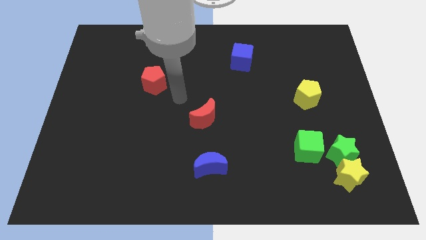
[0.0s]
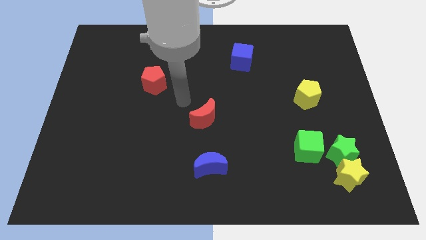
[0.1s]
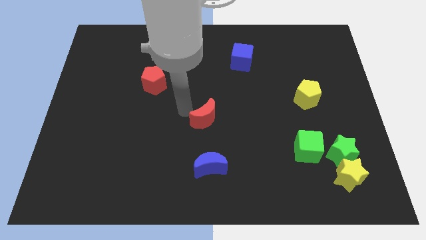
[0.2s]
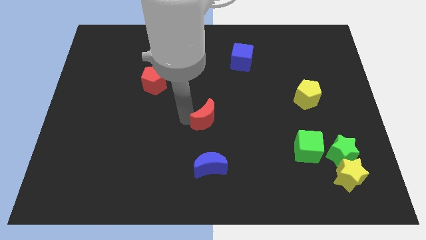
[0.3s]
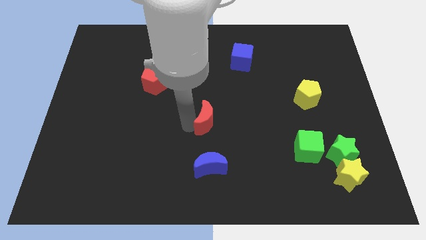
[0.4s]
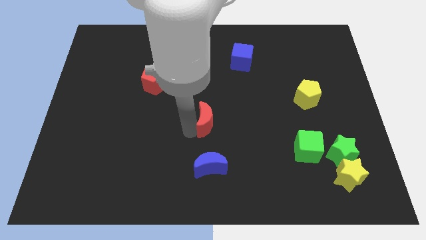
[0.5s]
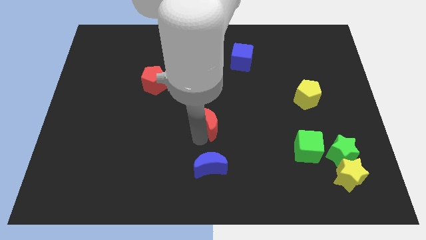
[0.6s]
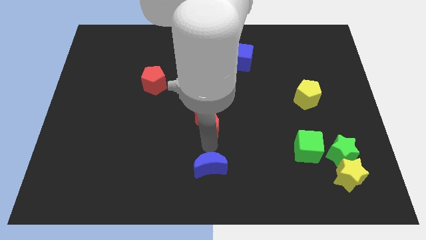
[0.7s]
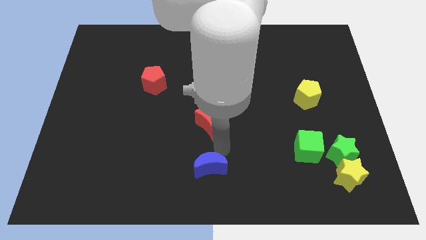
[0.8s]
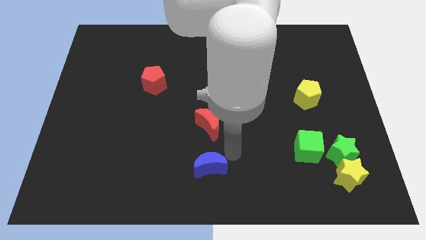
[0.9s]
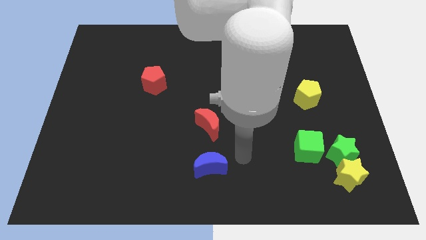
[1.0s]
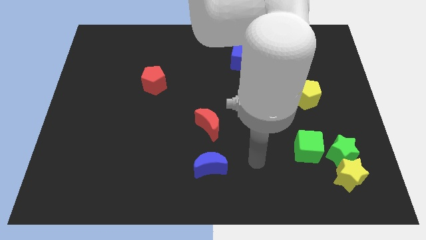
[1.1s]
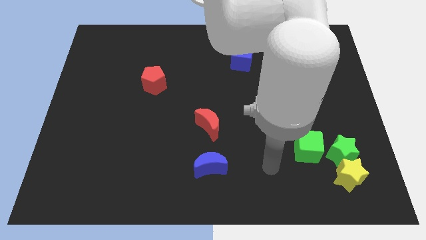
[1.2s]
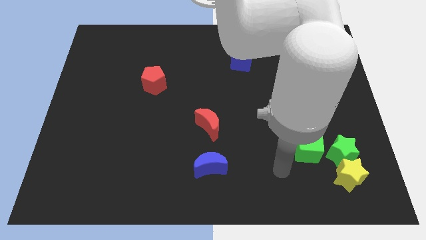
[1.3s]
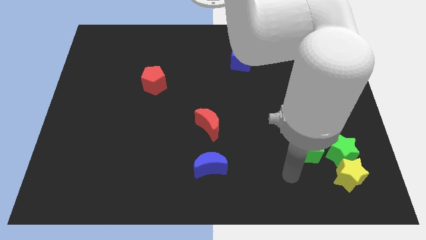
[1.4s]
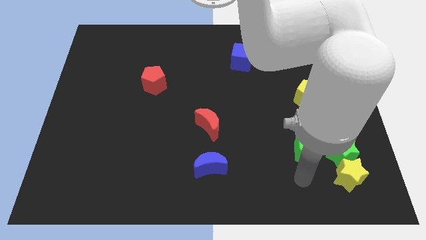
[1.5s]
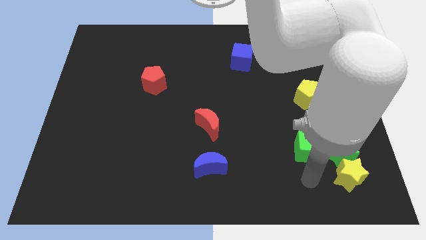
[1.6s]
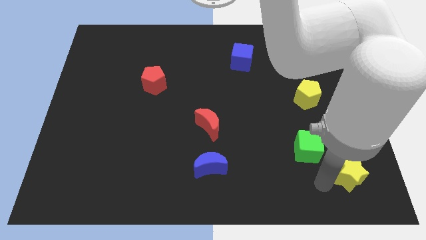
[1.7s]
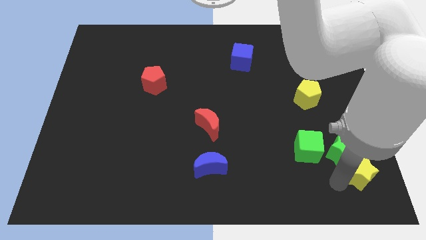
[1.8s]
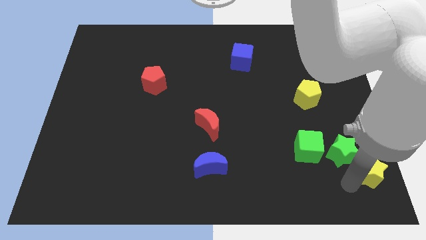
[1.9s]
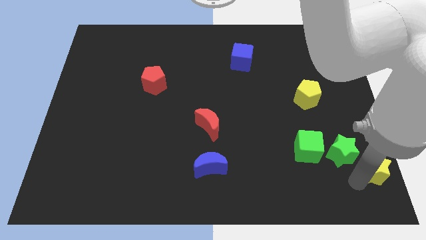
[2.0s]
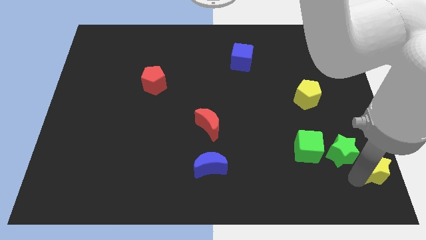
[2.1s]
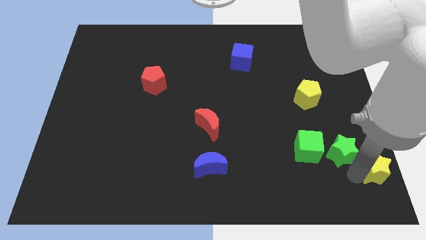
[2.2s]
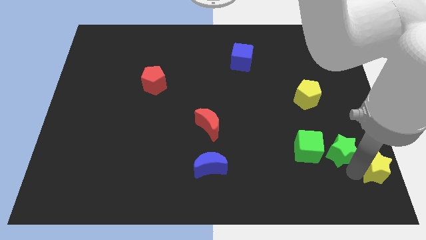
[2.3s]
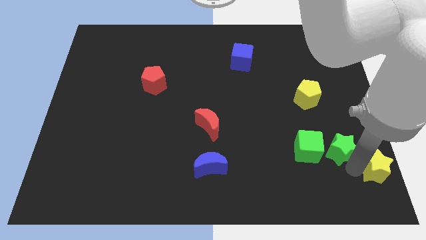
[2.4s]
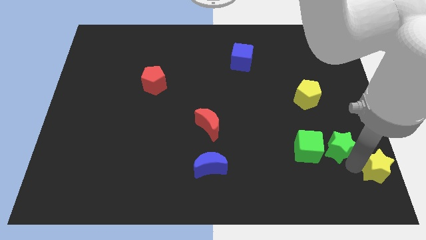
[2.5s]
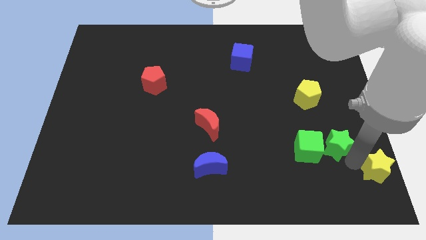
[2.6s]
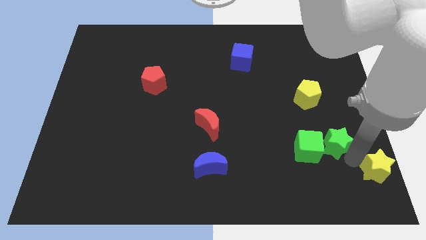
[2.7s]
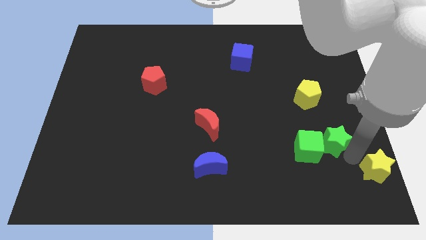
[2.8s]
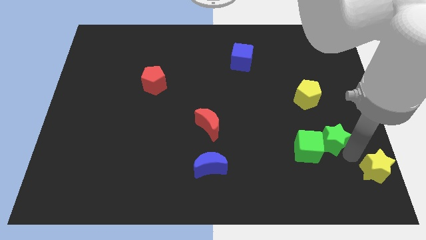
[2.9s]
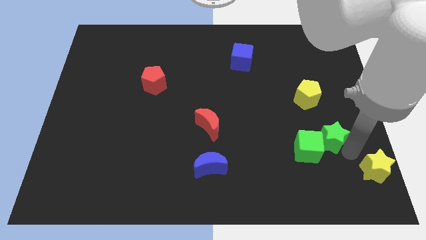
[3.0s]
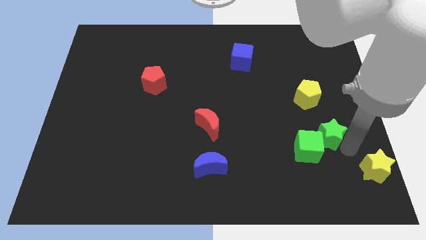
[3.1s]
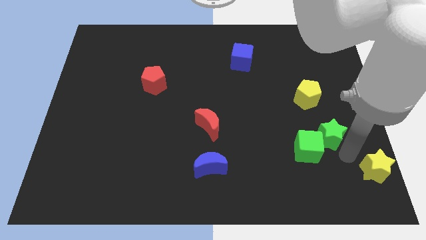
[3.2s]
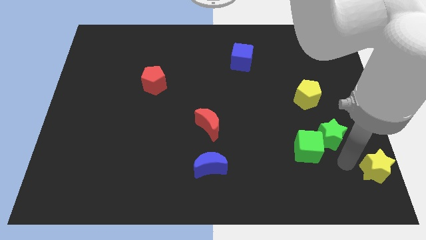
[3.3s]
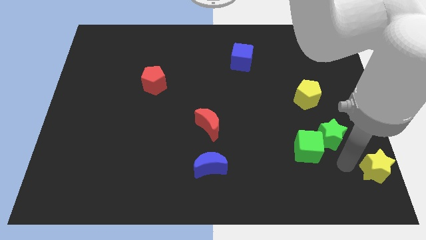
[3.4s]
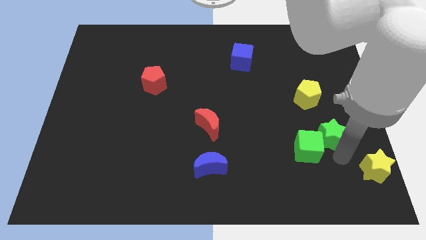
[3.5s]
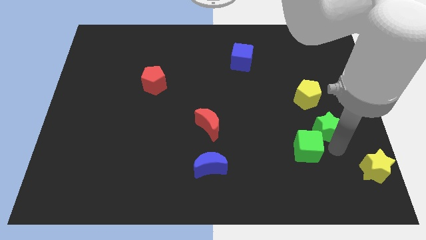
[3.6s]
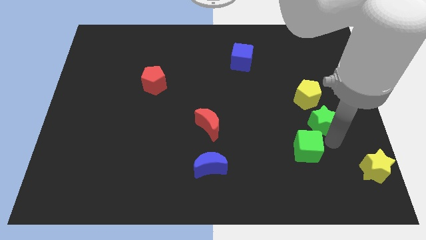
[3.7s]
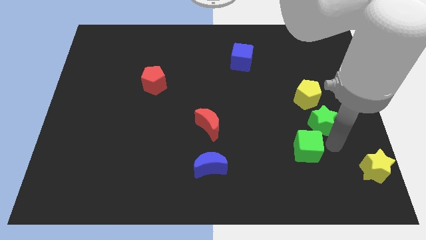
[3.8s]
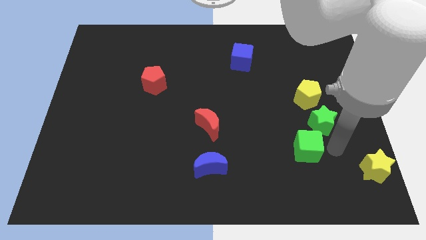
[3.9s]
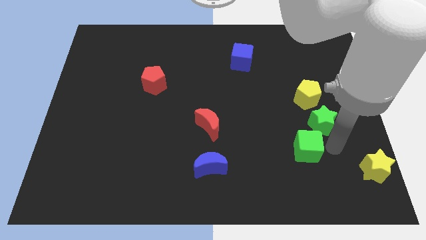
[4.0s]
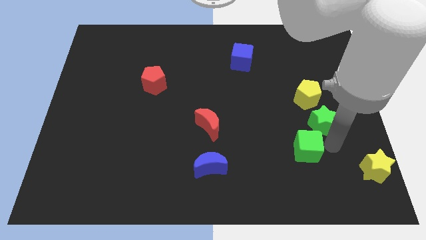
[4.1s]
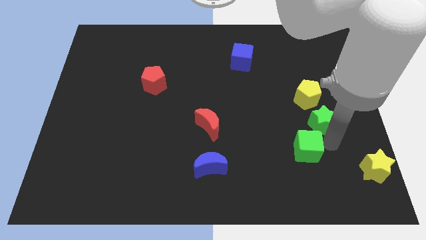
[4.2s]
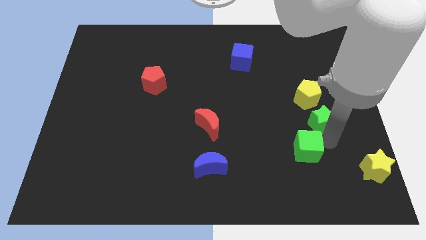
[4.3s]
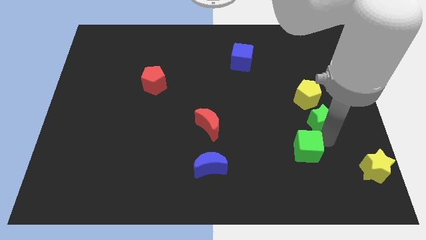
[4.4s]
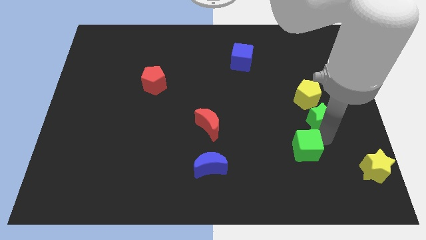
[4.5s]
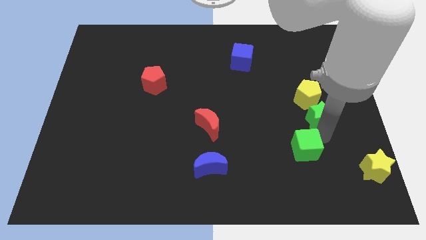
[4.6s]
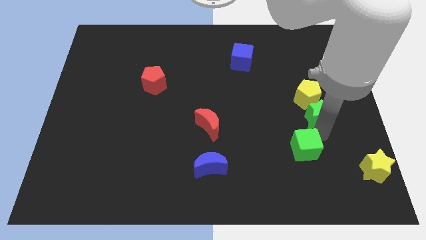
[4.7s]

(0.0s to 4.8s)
put the green star to the yellow pentagon

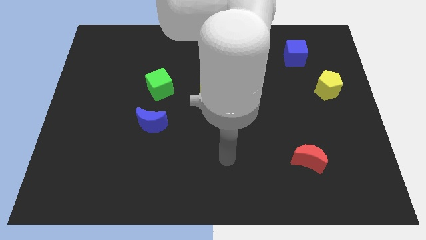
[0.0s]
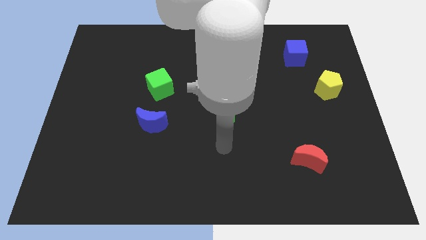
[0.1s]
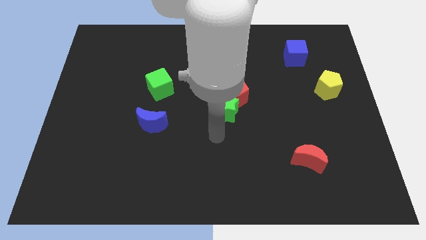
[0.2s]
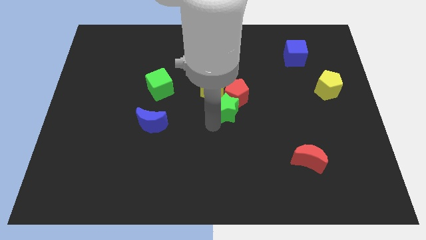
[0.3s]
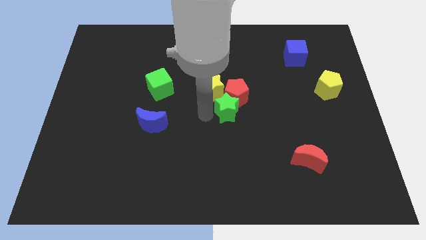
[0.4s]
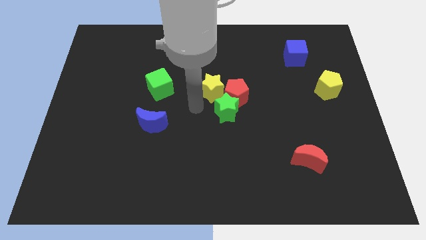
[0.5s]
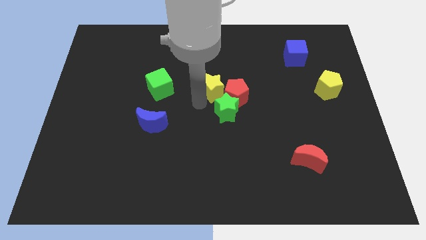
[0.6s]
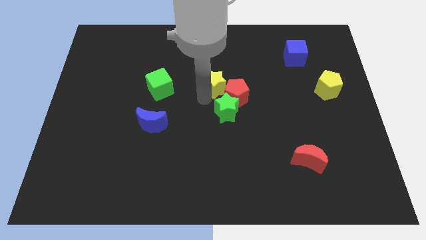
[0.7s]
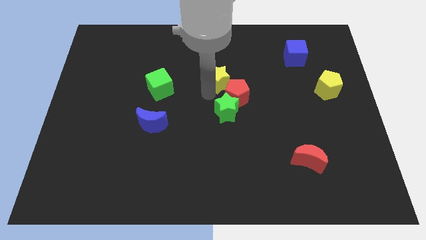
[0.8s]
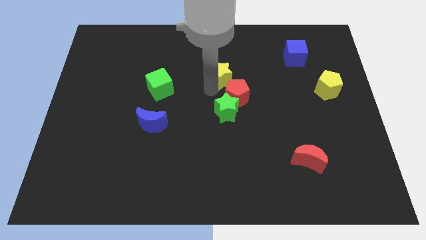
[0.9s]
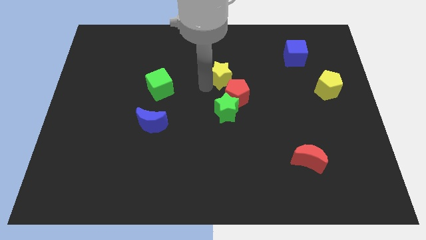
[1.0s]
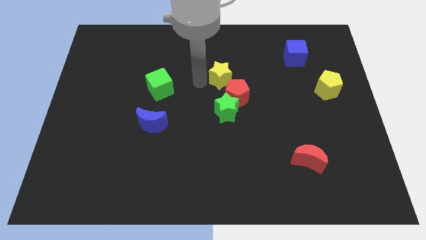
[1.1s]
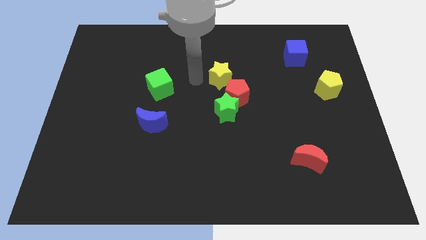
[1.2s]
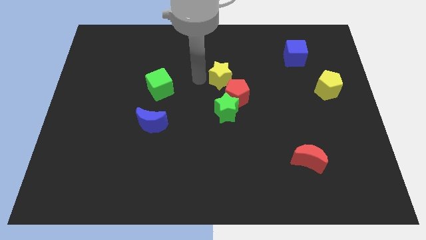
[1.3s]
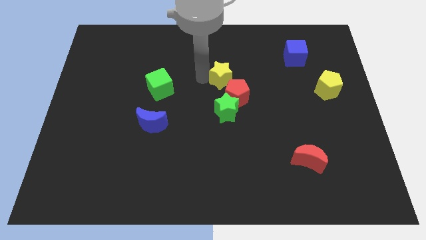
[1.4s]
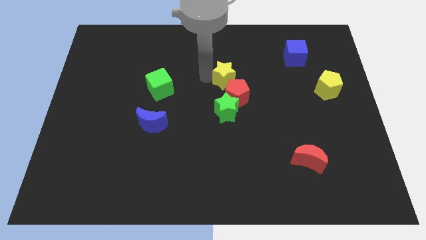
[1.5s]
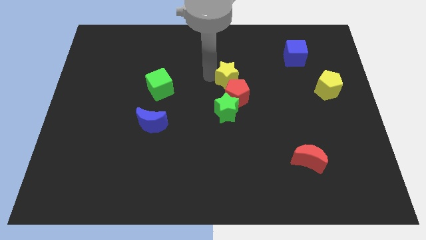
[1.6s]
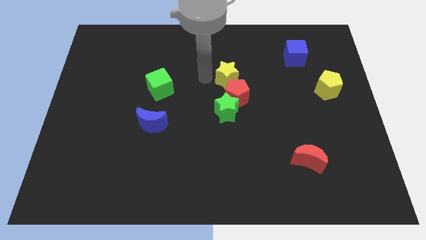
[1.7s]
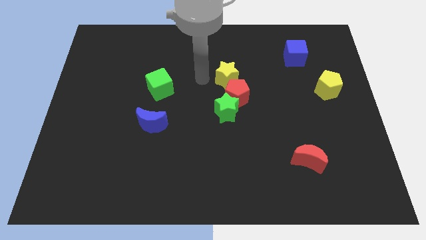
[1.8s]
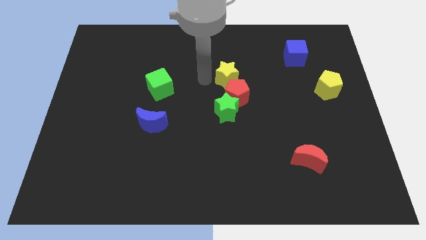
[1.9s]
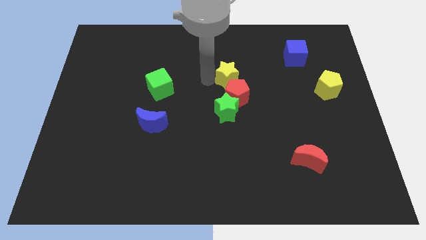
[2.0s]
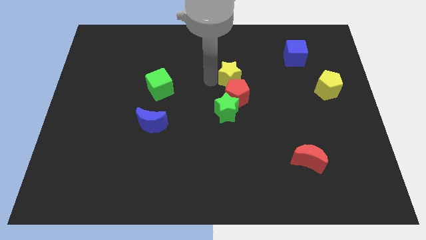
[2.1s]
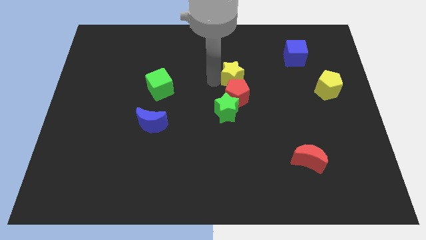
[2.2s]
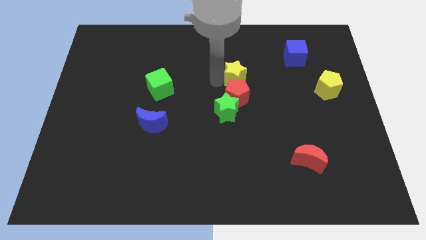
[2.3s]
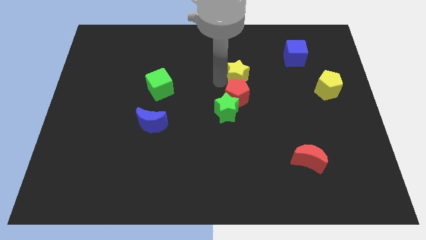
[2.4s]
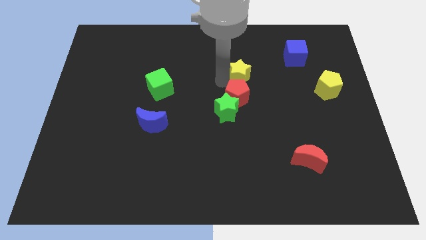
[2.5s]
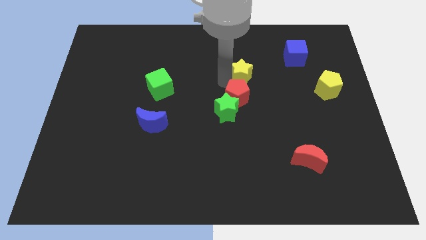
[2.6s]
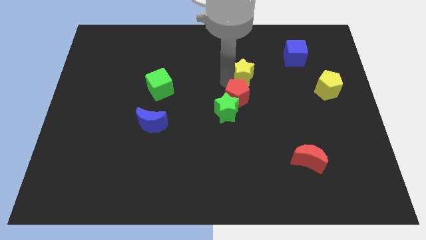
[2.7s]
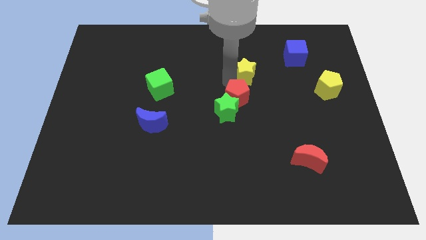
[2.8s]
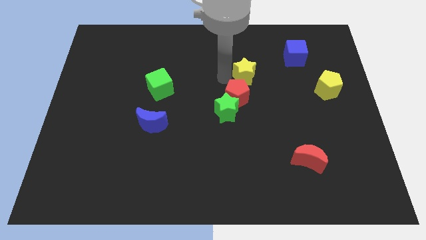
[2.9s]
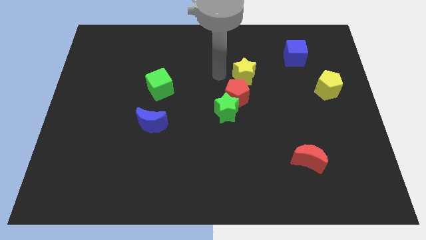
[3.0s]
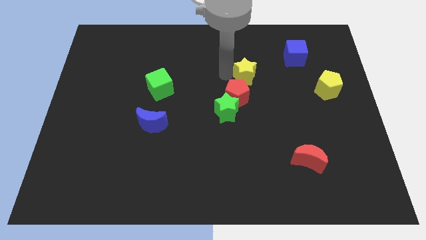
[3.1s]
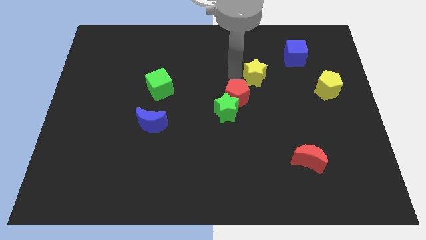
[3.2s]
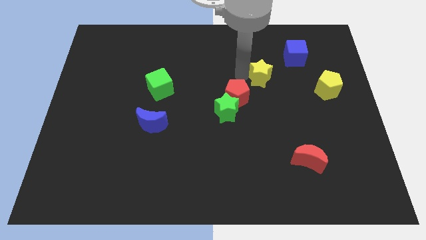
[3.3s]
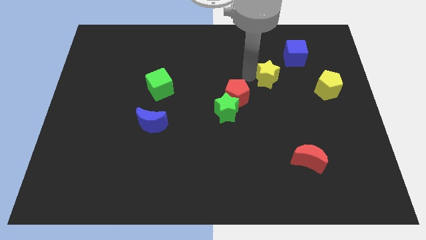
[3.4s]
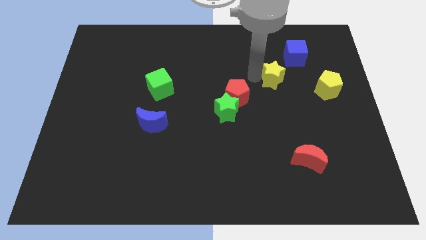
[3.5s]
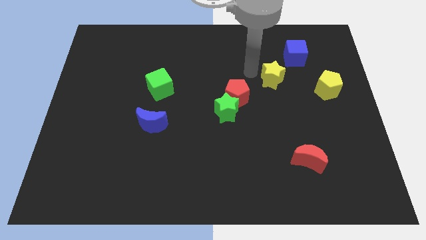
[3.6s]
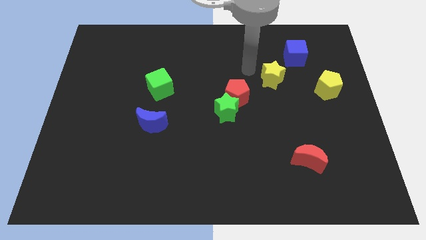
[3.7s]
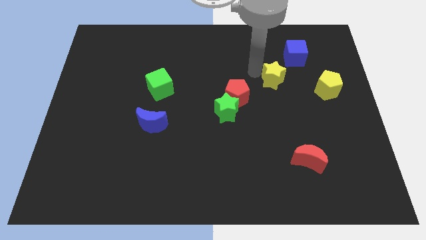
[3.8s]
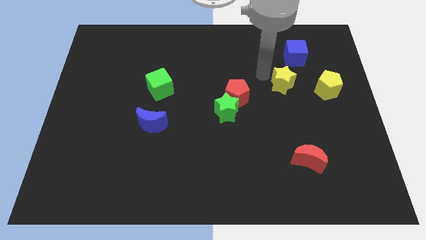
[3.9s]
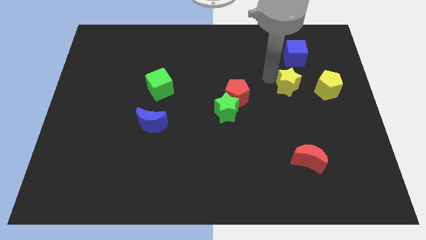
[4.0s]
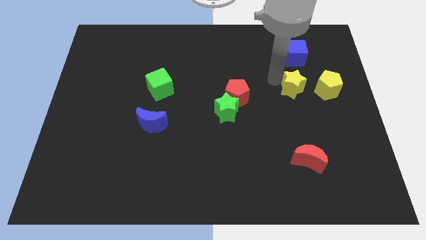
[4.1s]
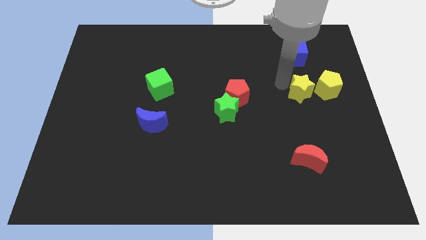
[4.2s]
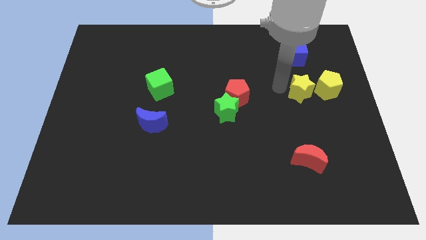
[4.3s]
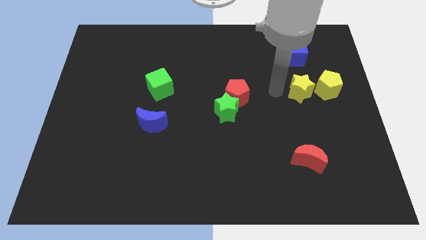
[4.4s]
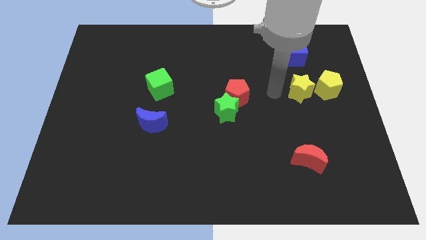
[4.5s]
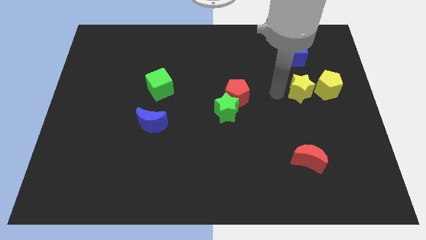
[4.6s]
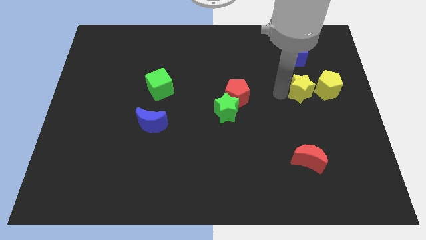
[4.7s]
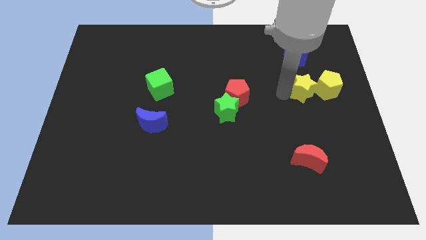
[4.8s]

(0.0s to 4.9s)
put the yellow star close to the yellow pentagon
